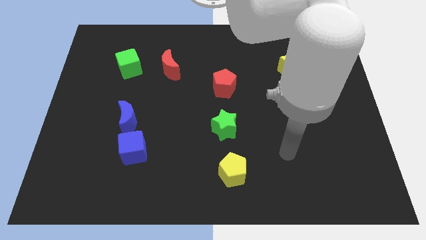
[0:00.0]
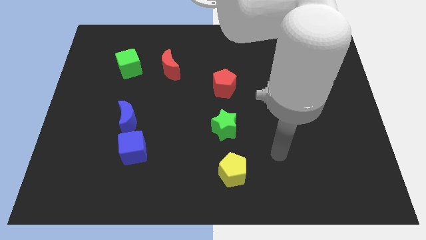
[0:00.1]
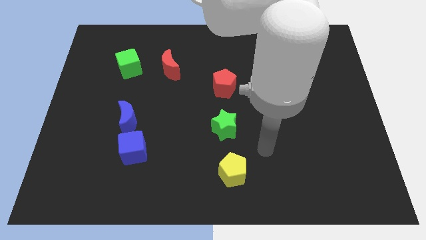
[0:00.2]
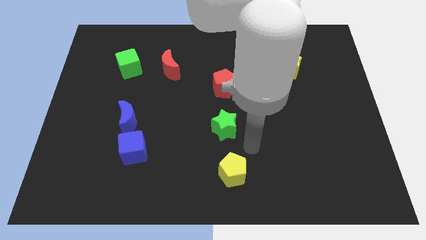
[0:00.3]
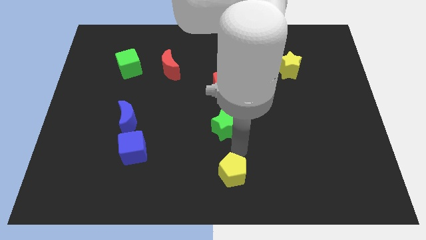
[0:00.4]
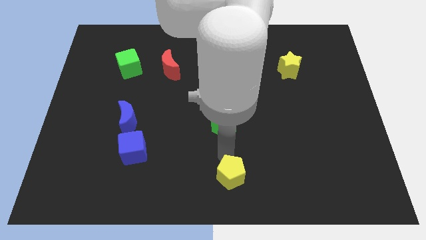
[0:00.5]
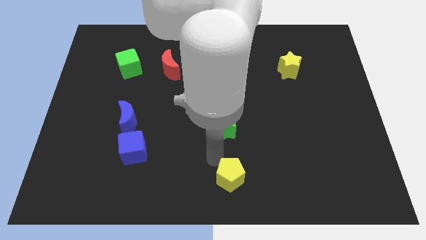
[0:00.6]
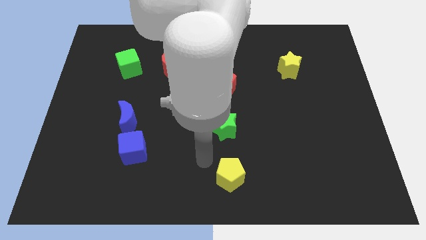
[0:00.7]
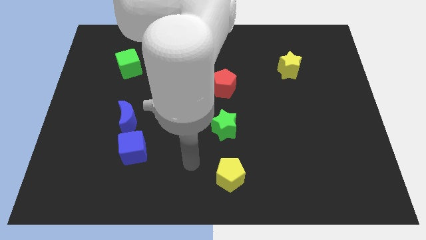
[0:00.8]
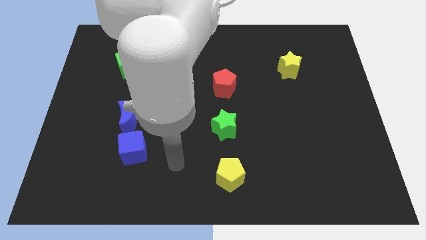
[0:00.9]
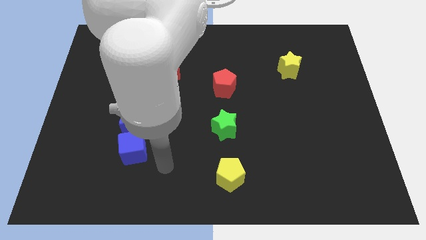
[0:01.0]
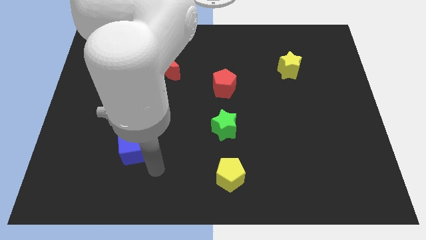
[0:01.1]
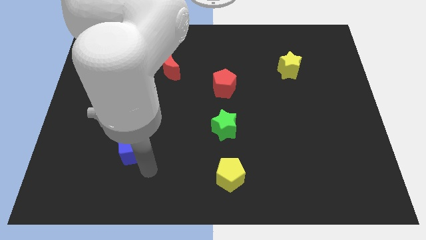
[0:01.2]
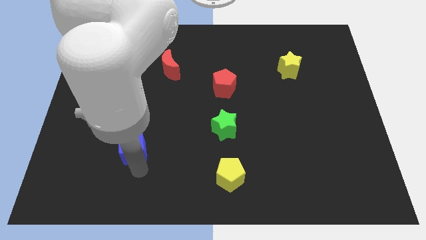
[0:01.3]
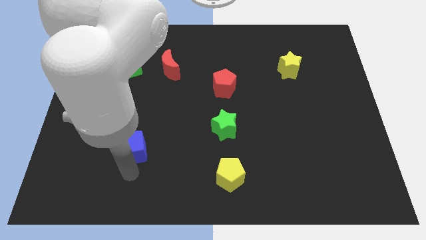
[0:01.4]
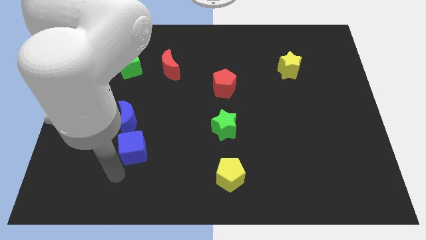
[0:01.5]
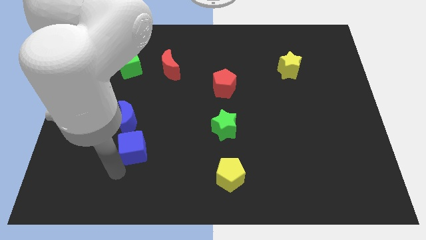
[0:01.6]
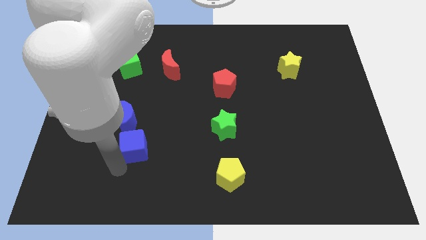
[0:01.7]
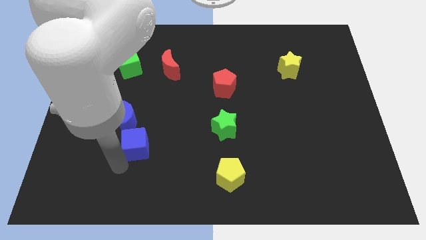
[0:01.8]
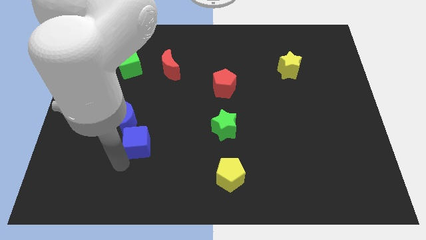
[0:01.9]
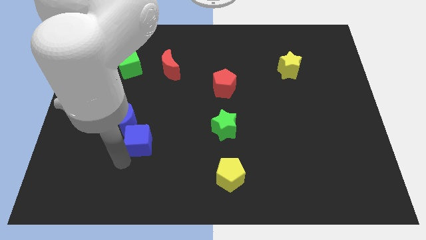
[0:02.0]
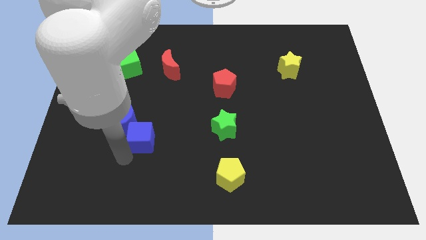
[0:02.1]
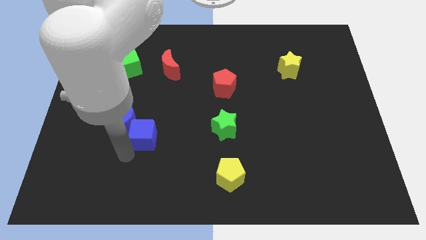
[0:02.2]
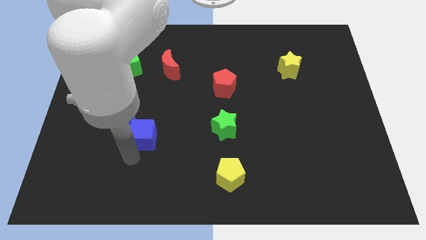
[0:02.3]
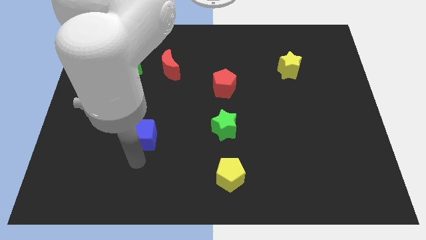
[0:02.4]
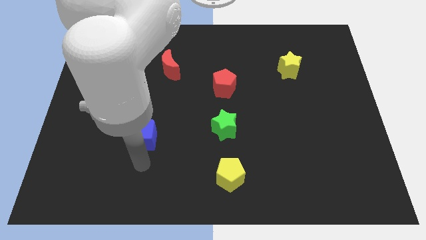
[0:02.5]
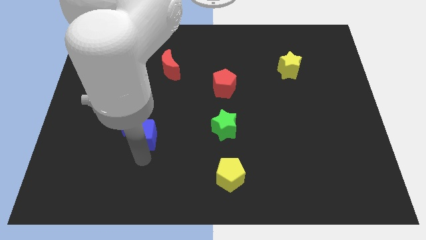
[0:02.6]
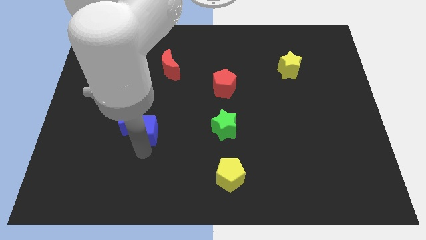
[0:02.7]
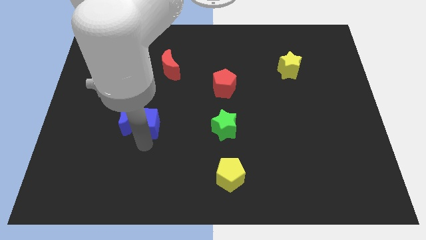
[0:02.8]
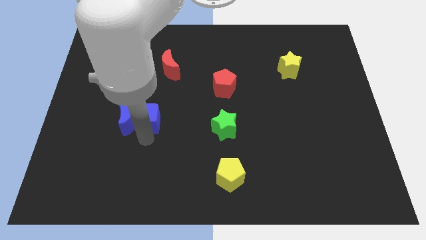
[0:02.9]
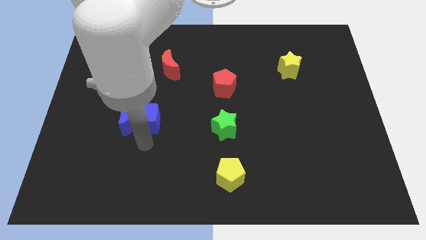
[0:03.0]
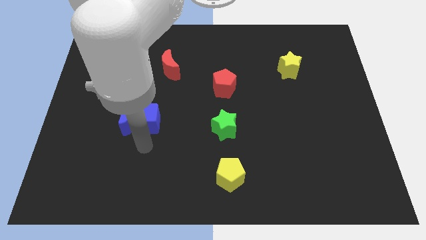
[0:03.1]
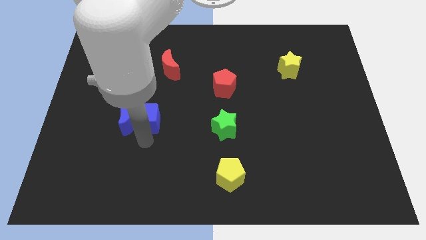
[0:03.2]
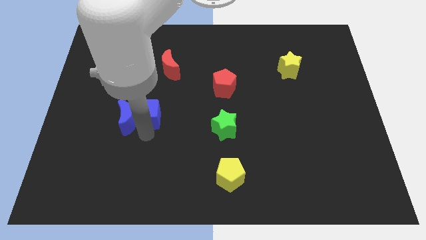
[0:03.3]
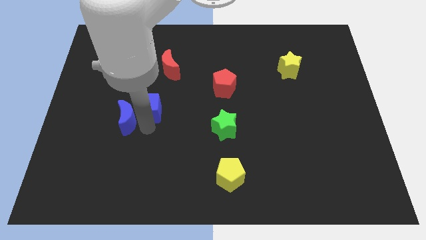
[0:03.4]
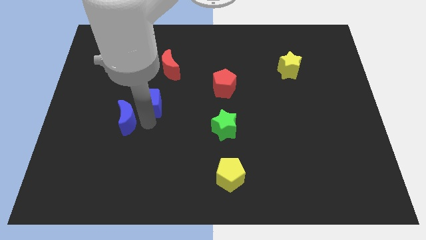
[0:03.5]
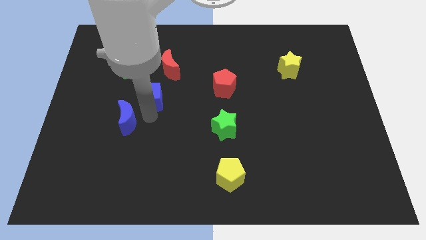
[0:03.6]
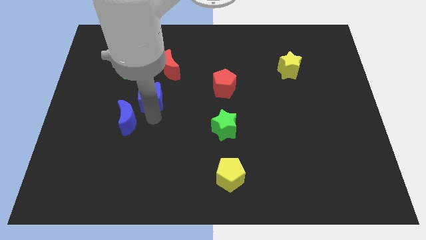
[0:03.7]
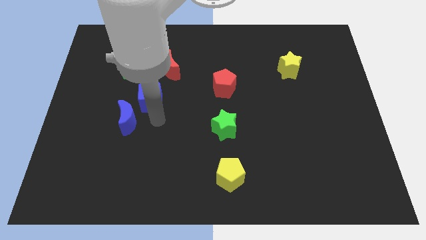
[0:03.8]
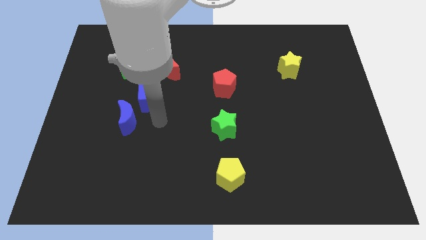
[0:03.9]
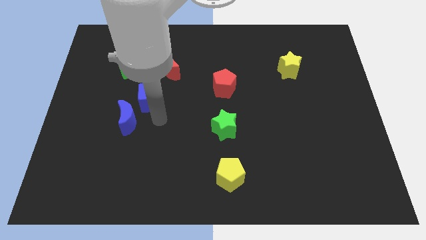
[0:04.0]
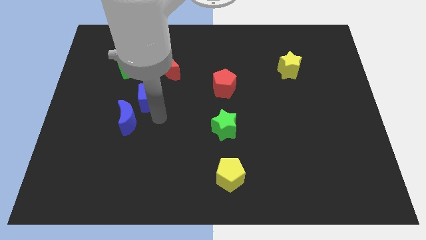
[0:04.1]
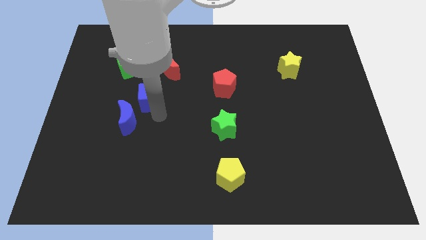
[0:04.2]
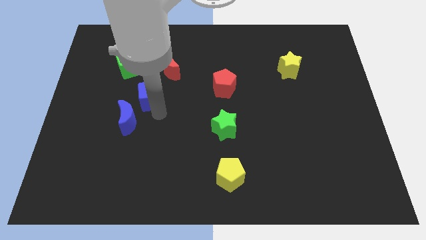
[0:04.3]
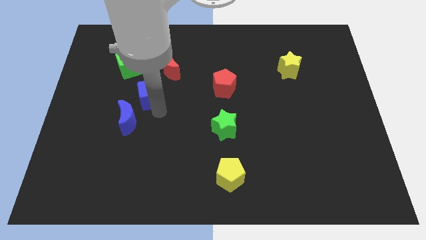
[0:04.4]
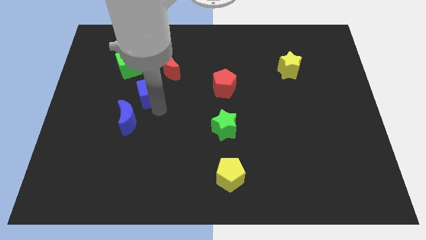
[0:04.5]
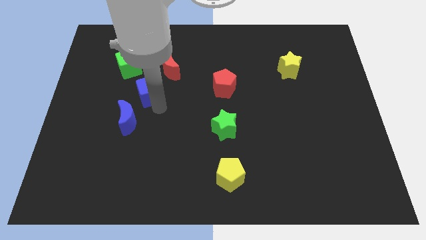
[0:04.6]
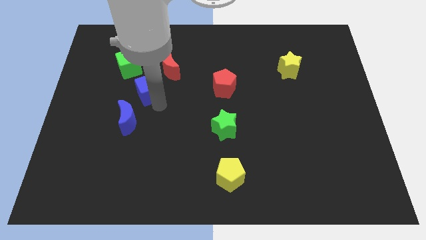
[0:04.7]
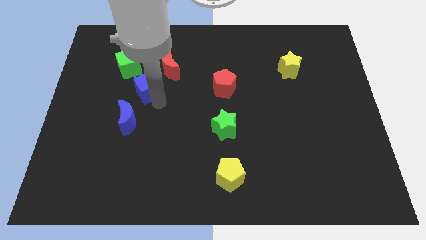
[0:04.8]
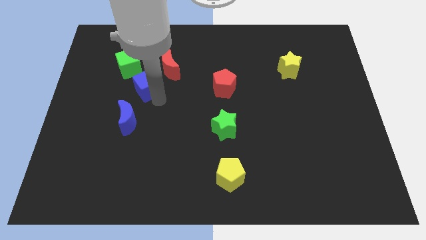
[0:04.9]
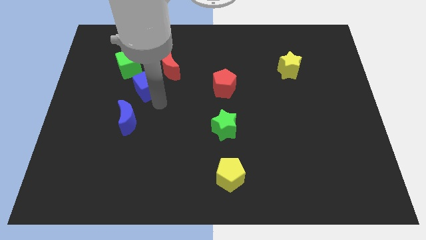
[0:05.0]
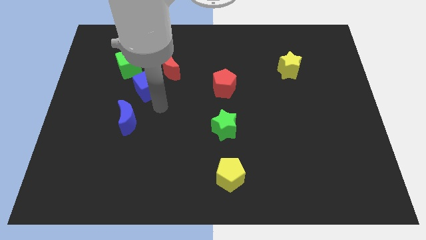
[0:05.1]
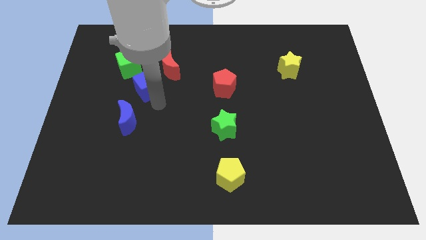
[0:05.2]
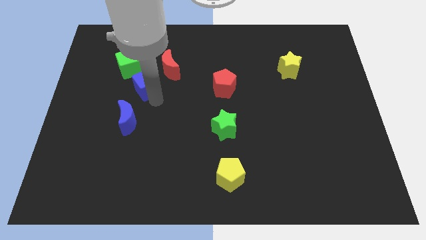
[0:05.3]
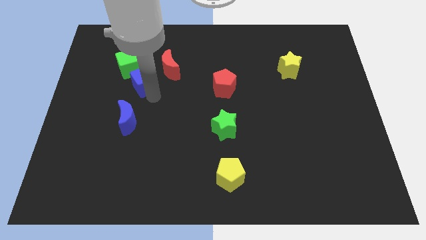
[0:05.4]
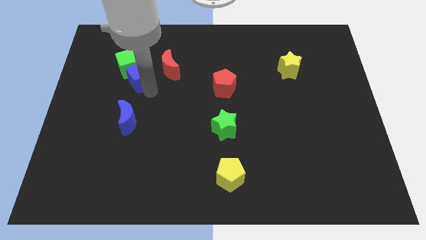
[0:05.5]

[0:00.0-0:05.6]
move the blue cube close to the green cube

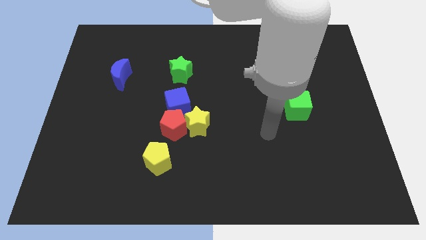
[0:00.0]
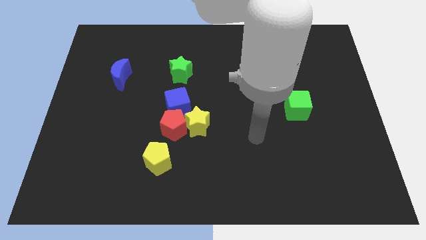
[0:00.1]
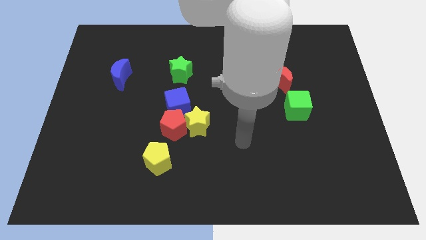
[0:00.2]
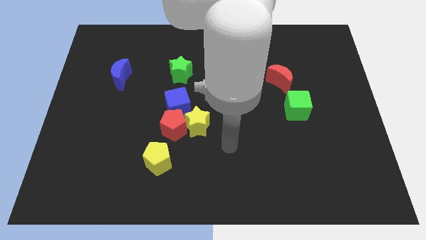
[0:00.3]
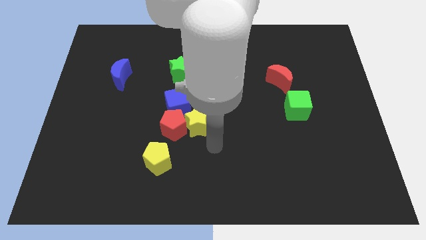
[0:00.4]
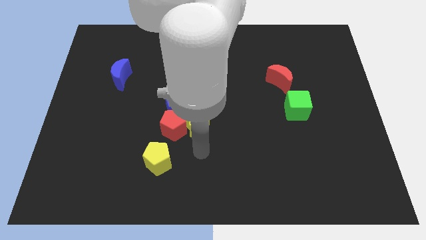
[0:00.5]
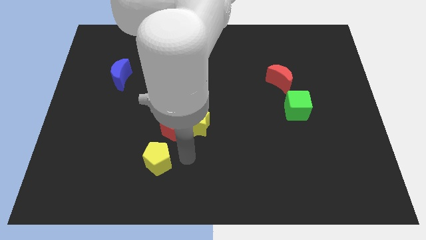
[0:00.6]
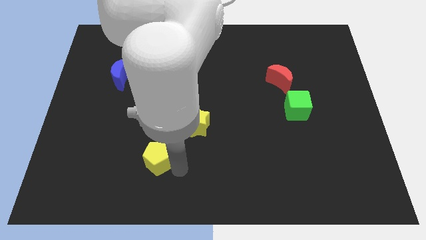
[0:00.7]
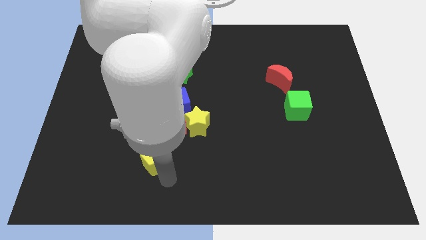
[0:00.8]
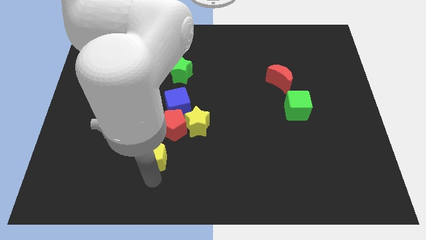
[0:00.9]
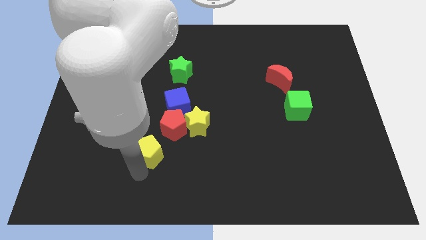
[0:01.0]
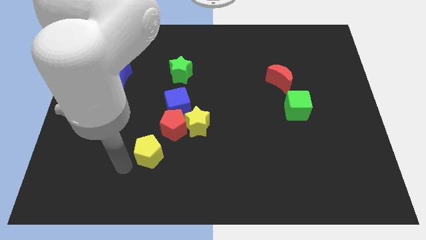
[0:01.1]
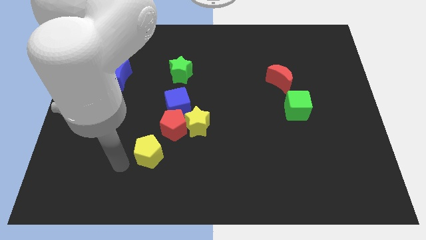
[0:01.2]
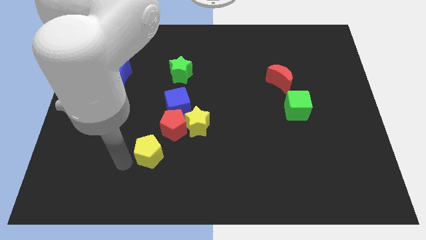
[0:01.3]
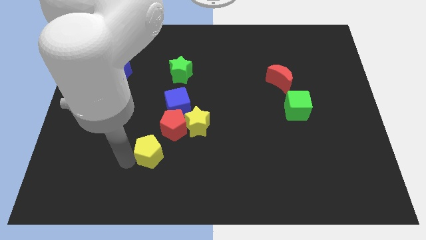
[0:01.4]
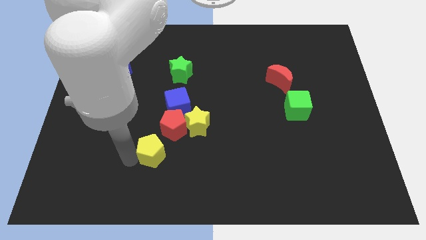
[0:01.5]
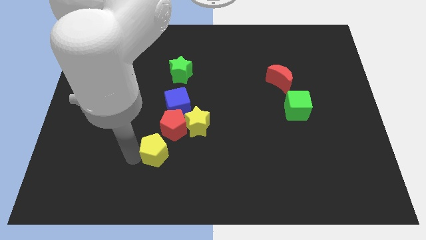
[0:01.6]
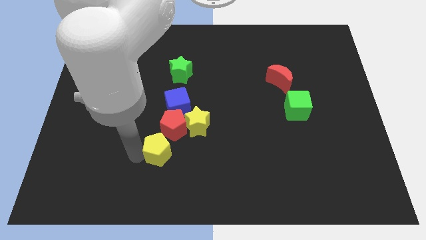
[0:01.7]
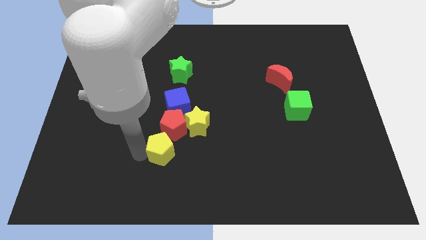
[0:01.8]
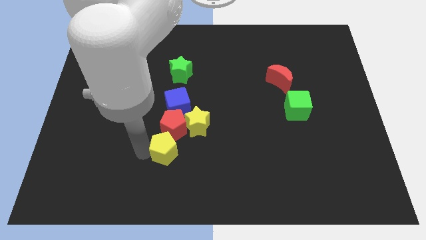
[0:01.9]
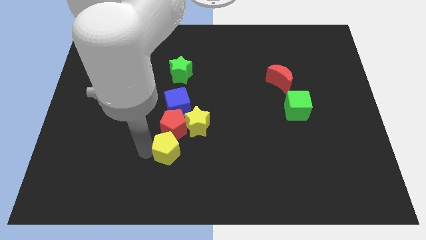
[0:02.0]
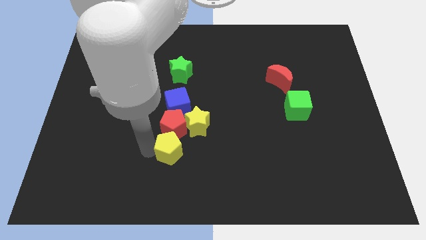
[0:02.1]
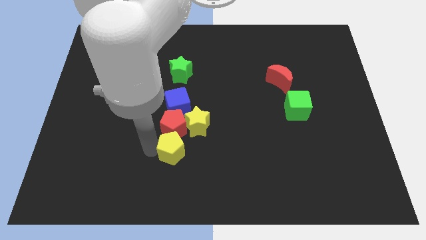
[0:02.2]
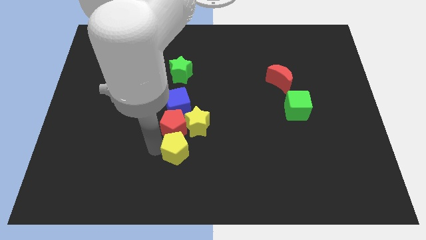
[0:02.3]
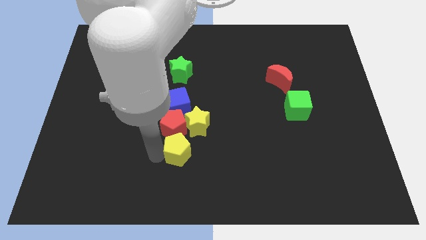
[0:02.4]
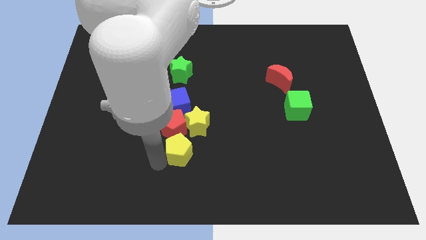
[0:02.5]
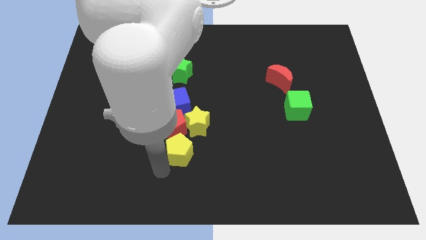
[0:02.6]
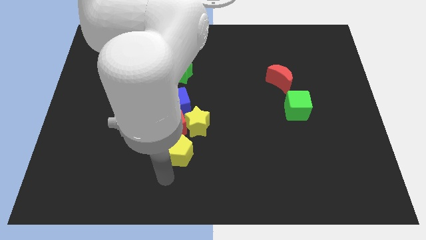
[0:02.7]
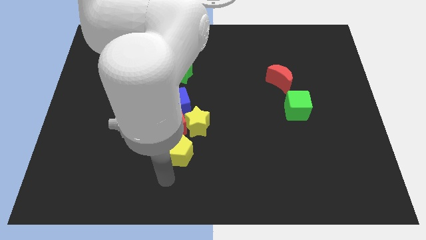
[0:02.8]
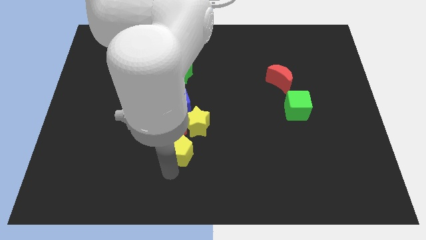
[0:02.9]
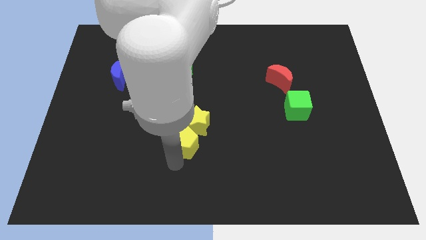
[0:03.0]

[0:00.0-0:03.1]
push the yellow pentagon towards the yellow star
